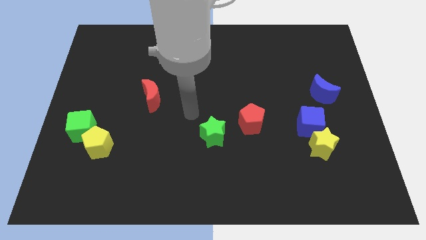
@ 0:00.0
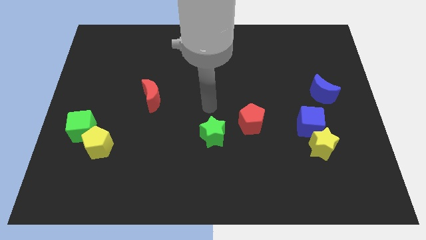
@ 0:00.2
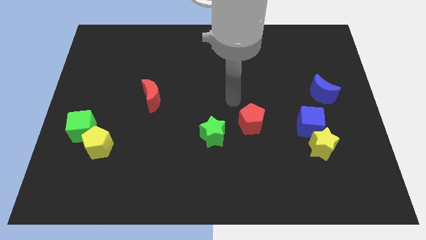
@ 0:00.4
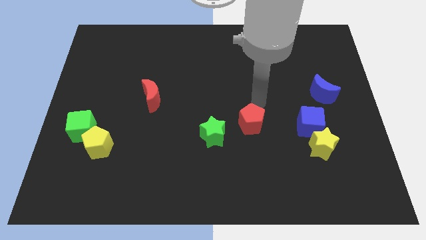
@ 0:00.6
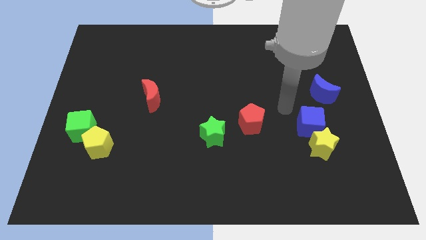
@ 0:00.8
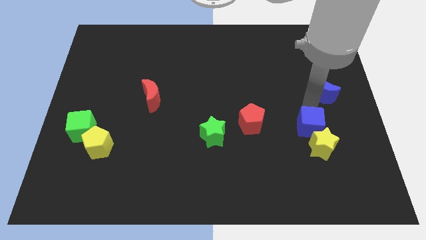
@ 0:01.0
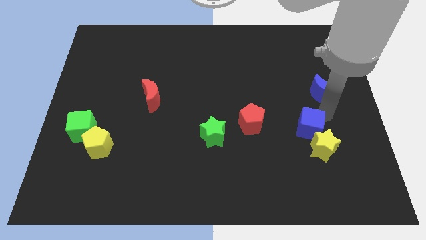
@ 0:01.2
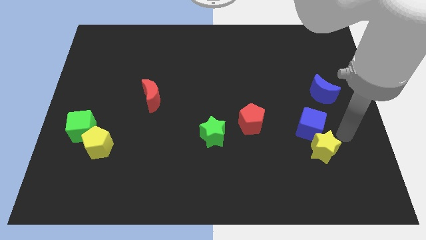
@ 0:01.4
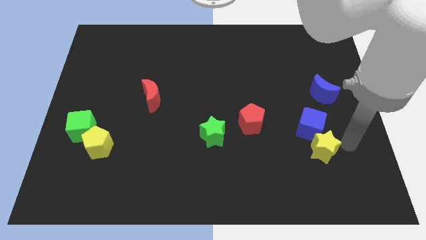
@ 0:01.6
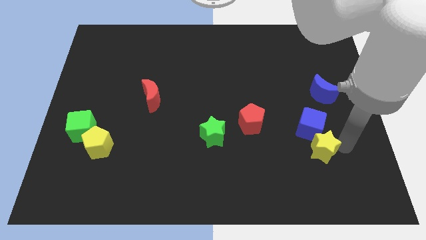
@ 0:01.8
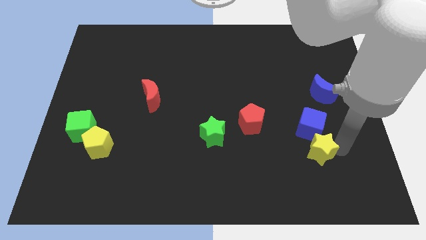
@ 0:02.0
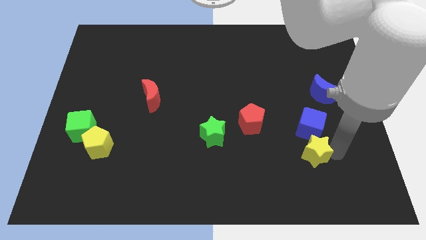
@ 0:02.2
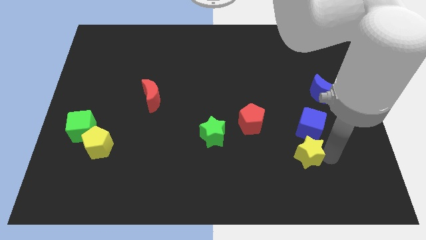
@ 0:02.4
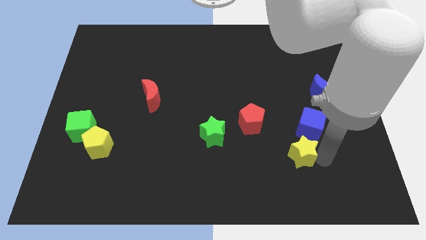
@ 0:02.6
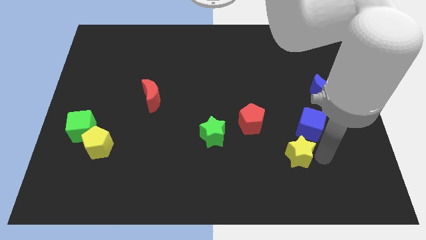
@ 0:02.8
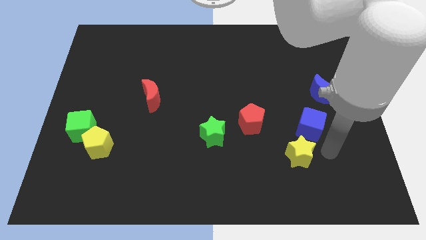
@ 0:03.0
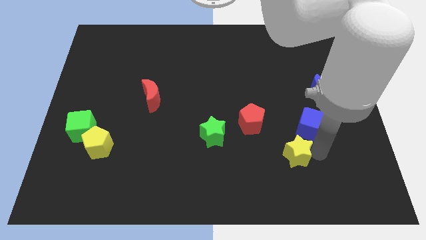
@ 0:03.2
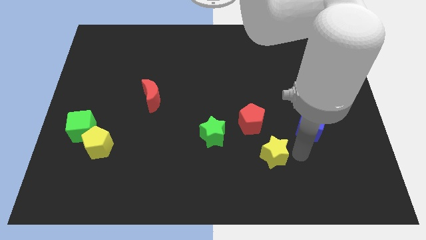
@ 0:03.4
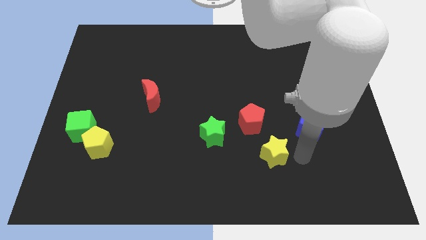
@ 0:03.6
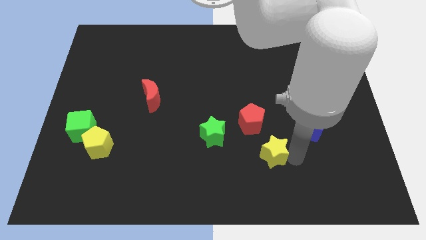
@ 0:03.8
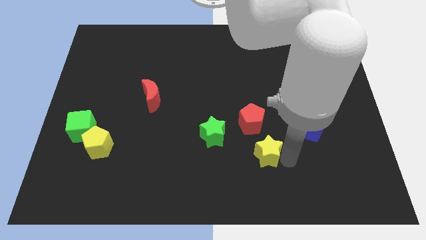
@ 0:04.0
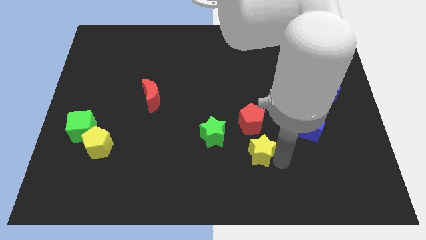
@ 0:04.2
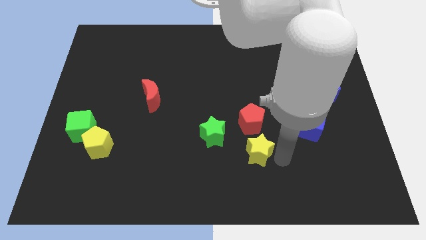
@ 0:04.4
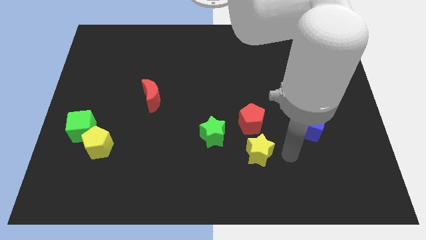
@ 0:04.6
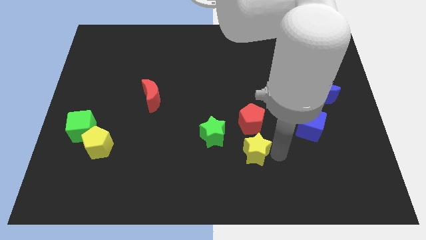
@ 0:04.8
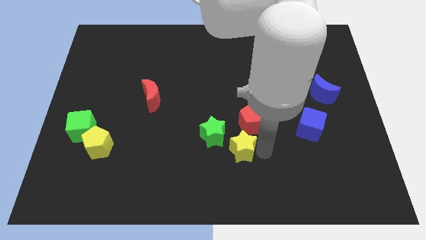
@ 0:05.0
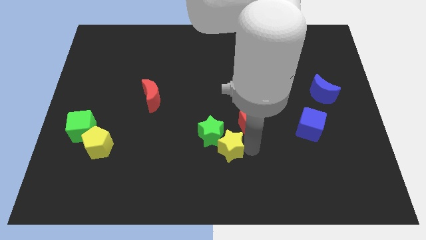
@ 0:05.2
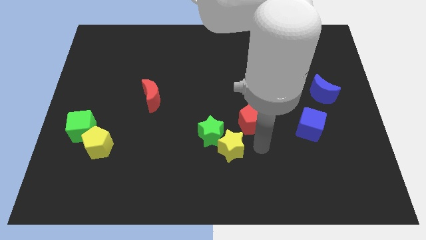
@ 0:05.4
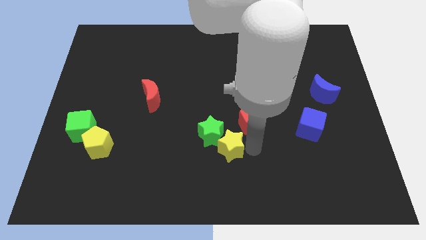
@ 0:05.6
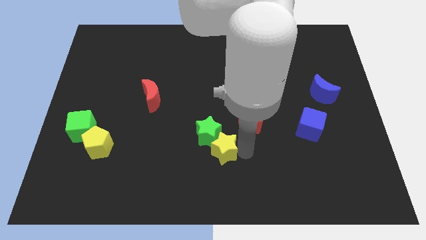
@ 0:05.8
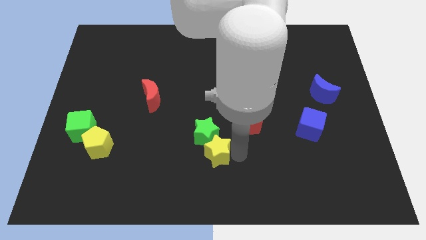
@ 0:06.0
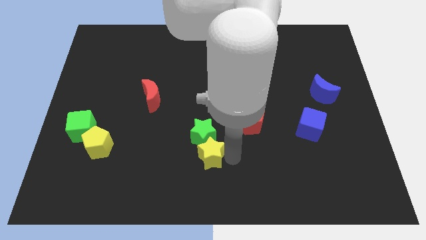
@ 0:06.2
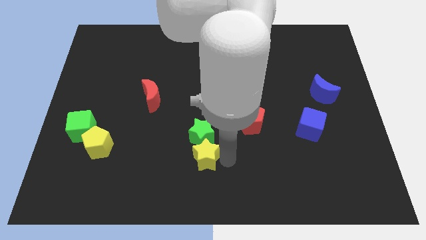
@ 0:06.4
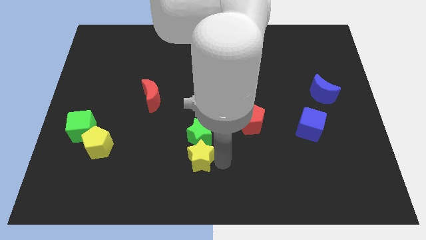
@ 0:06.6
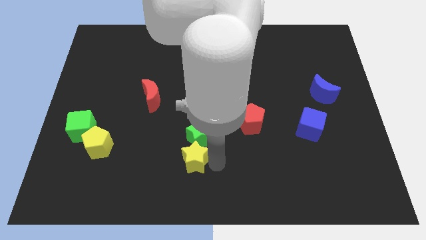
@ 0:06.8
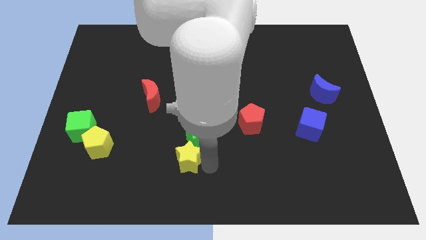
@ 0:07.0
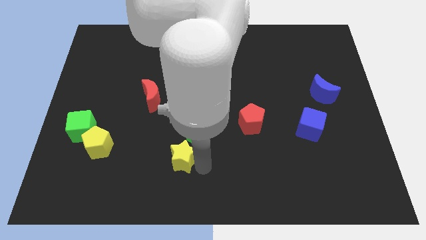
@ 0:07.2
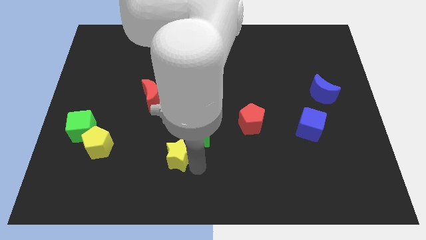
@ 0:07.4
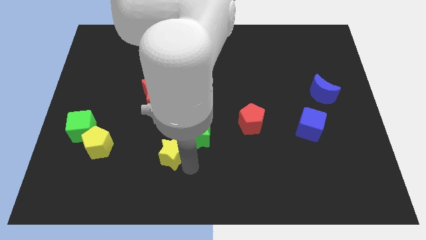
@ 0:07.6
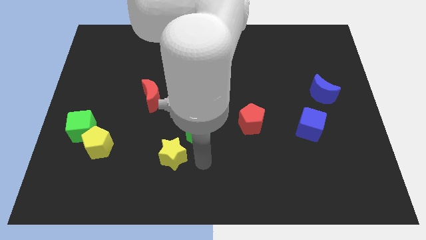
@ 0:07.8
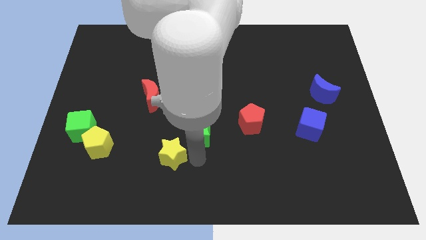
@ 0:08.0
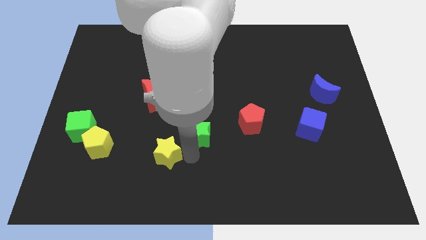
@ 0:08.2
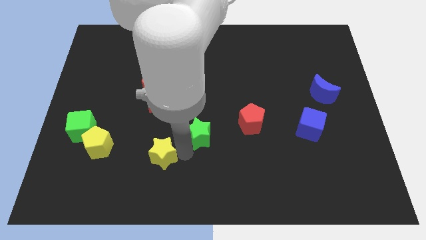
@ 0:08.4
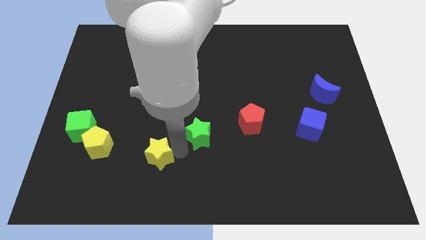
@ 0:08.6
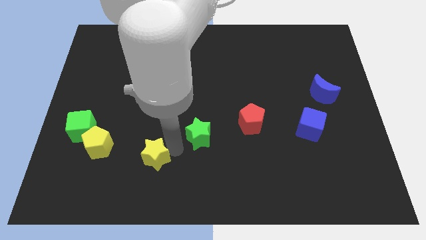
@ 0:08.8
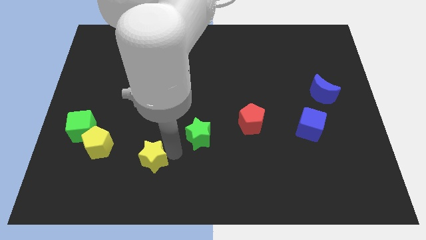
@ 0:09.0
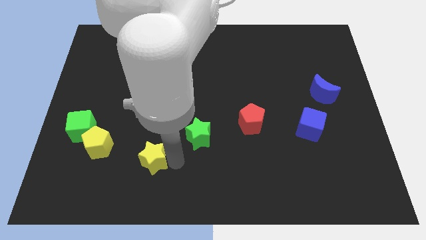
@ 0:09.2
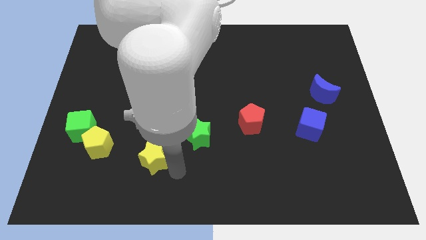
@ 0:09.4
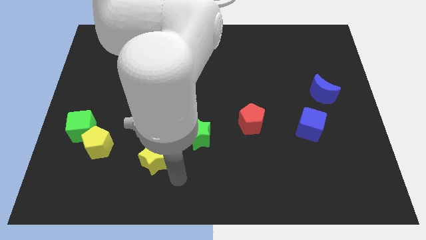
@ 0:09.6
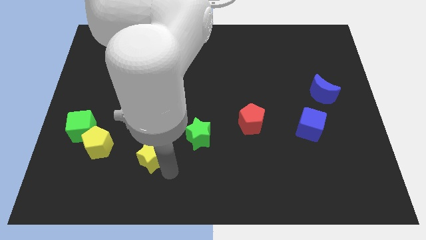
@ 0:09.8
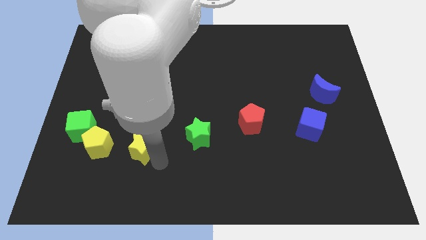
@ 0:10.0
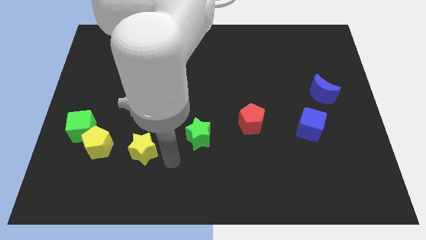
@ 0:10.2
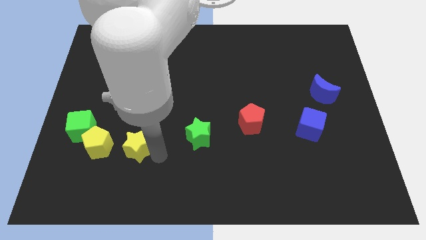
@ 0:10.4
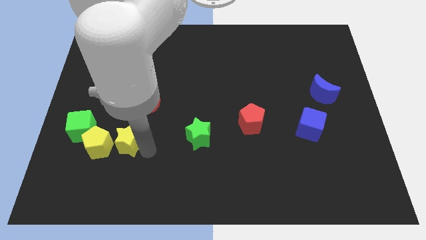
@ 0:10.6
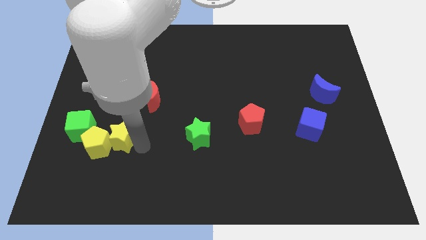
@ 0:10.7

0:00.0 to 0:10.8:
move the yellow star close to the yellow pentagon

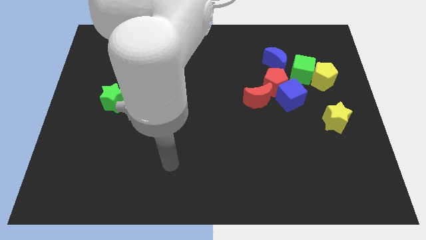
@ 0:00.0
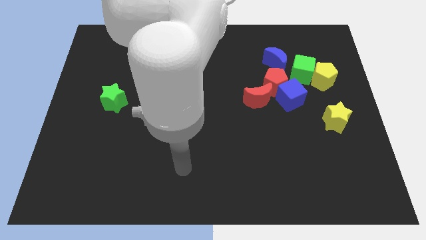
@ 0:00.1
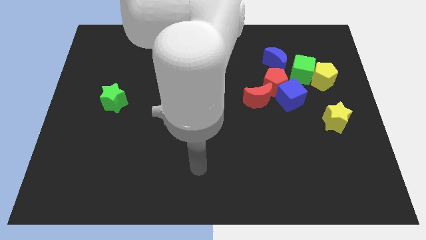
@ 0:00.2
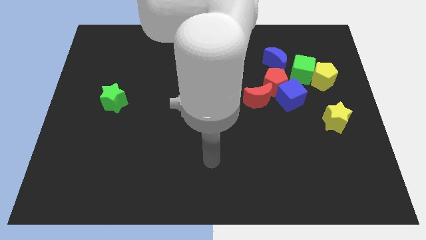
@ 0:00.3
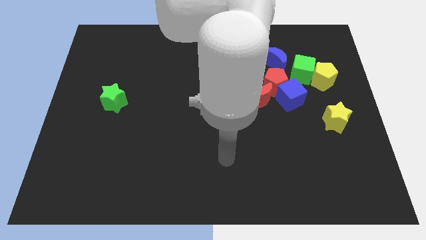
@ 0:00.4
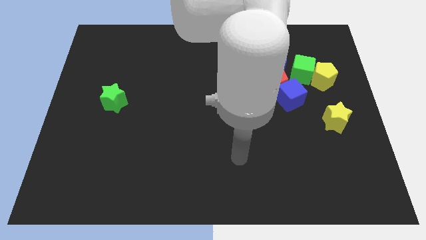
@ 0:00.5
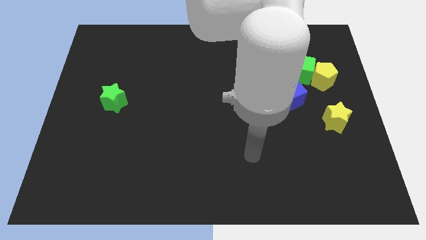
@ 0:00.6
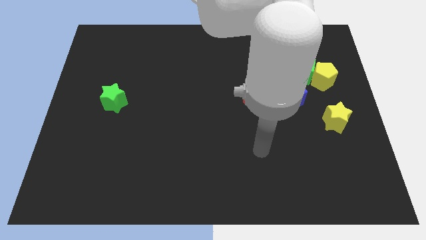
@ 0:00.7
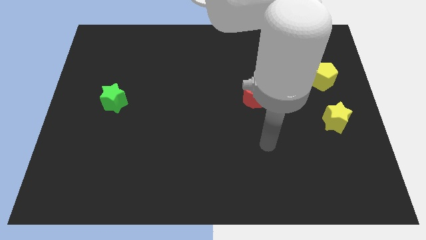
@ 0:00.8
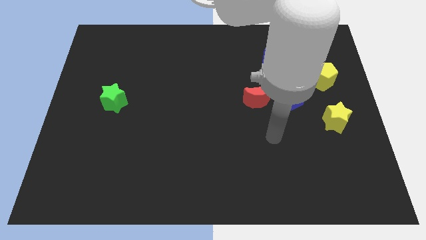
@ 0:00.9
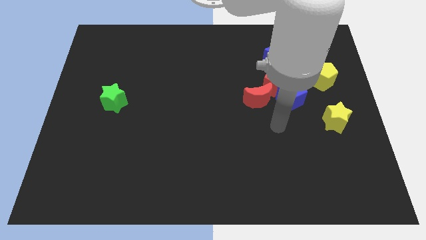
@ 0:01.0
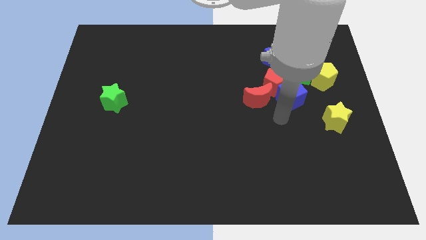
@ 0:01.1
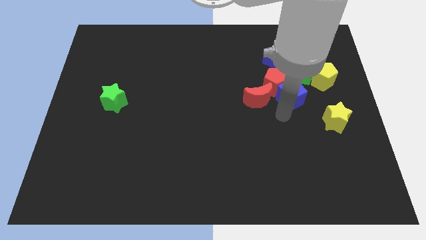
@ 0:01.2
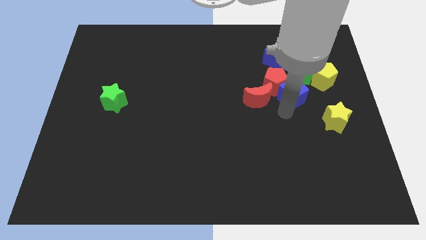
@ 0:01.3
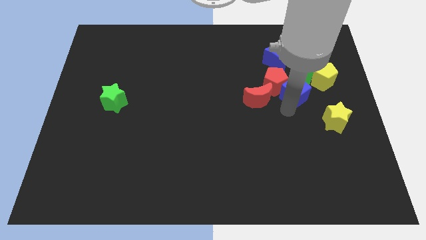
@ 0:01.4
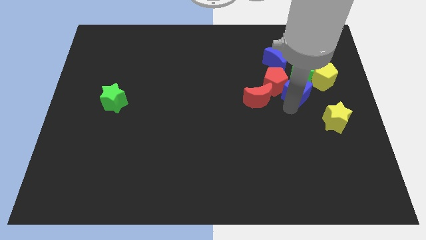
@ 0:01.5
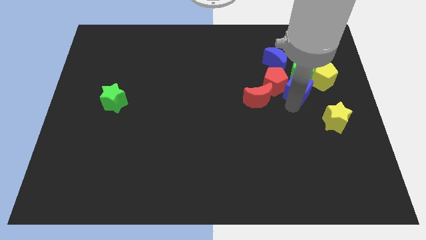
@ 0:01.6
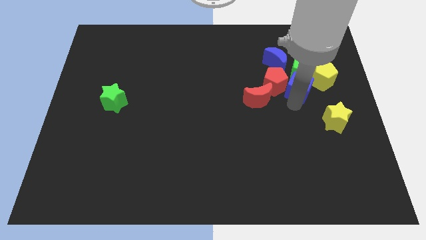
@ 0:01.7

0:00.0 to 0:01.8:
move the blue cube to the green cube
